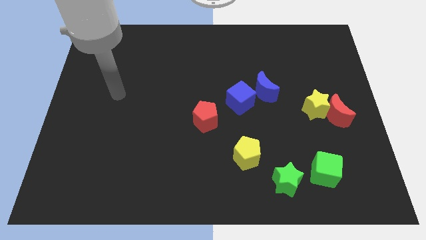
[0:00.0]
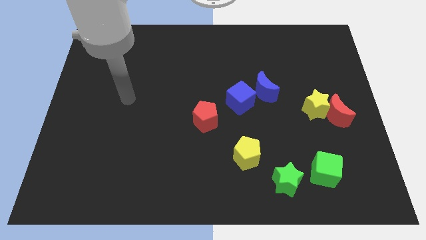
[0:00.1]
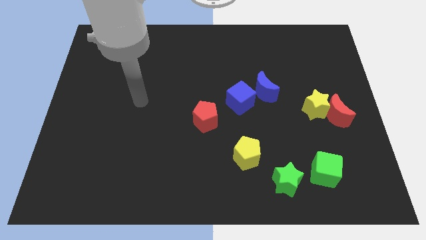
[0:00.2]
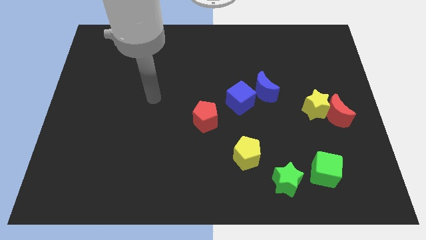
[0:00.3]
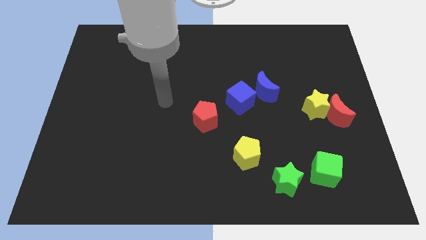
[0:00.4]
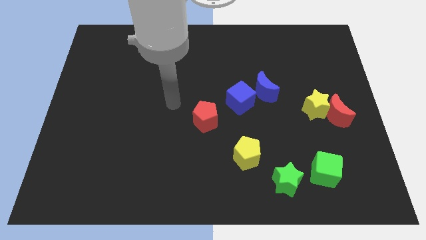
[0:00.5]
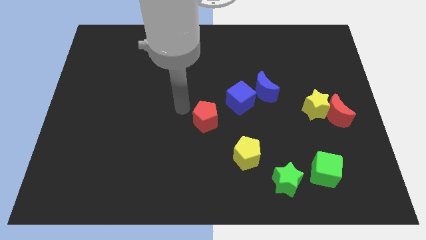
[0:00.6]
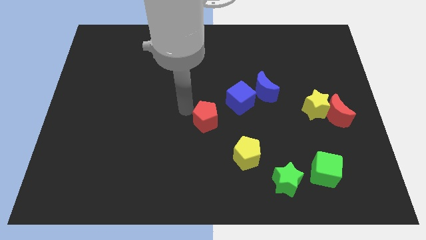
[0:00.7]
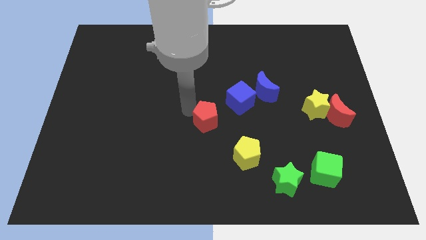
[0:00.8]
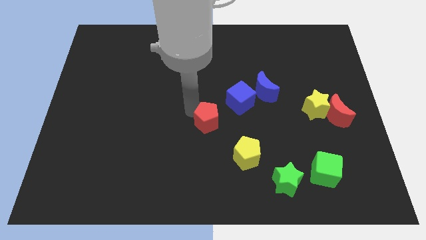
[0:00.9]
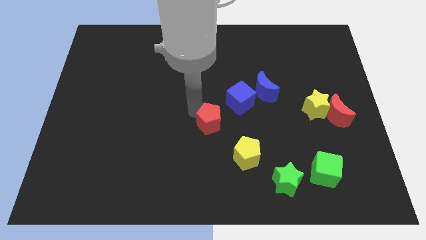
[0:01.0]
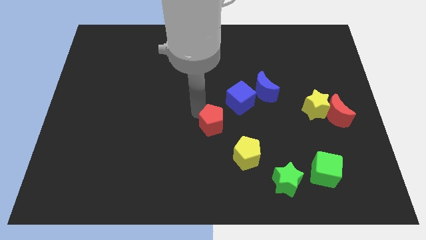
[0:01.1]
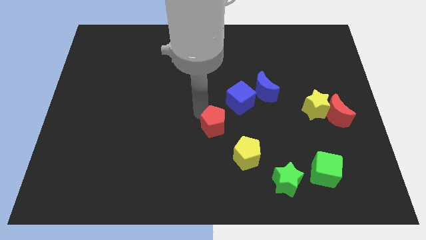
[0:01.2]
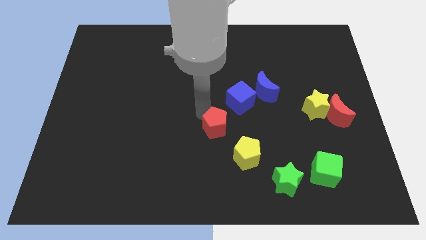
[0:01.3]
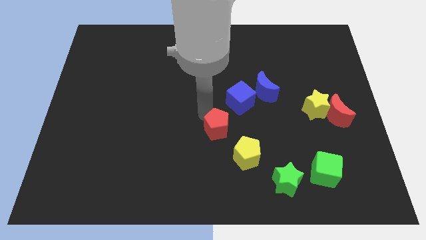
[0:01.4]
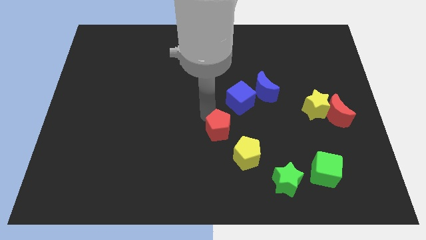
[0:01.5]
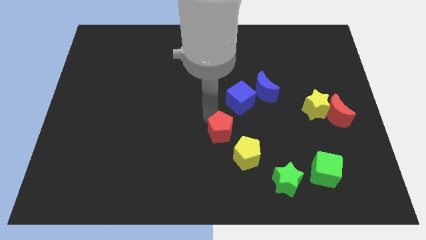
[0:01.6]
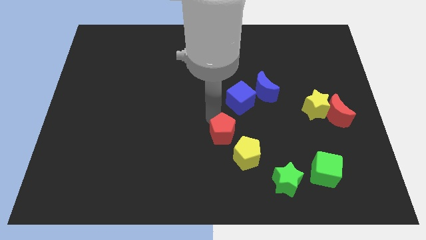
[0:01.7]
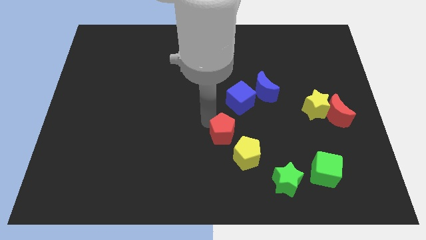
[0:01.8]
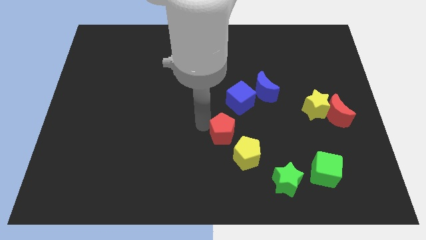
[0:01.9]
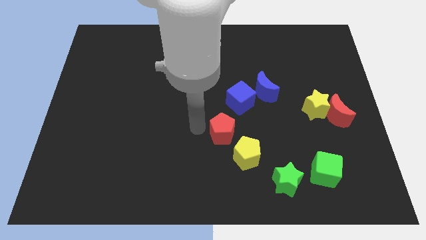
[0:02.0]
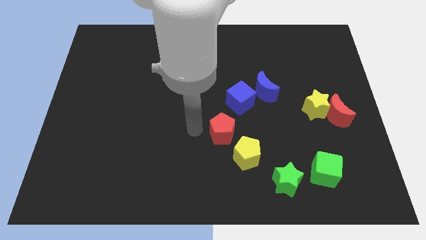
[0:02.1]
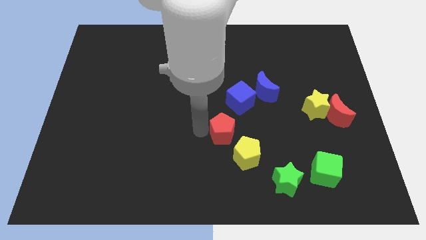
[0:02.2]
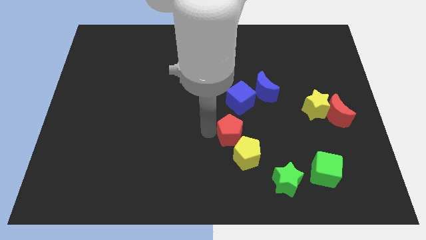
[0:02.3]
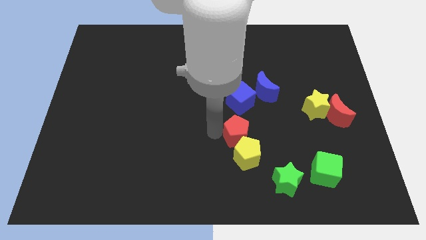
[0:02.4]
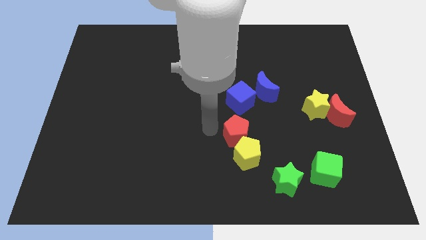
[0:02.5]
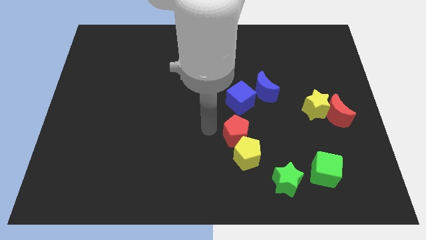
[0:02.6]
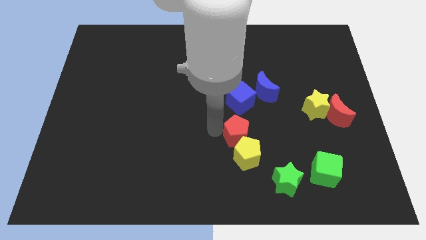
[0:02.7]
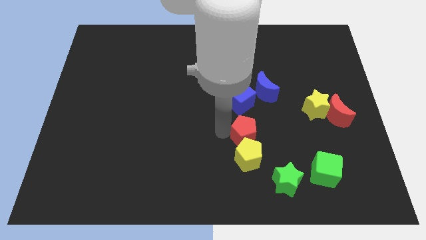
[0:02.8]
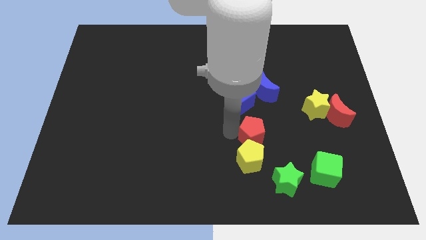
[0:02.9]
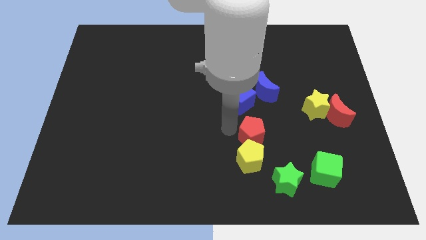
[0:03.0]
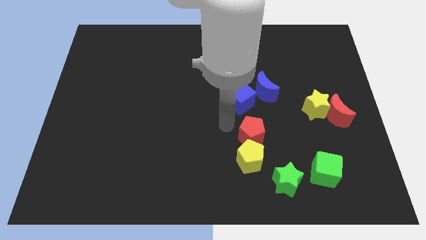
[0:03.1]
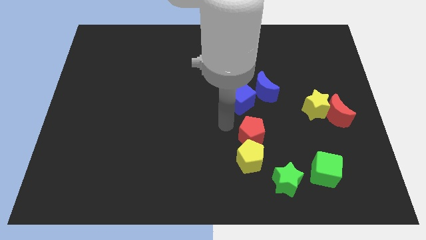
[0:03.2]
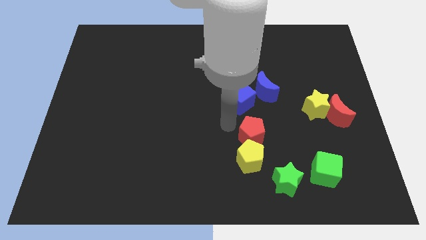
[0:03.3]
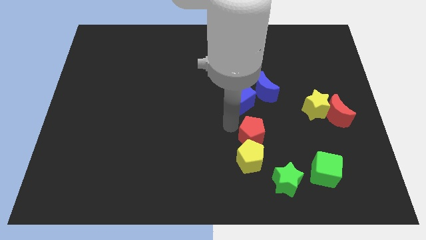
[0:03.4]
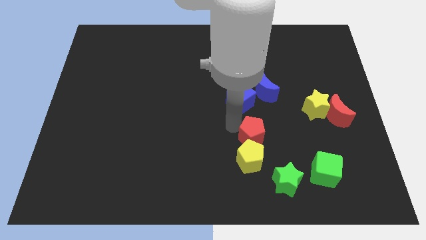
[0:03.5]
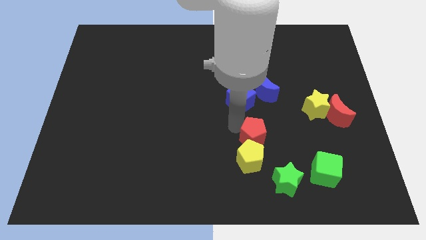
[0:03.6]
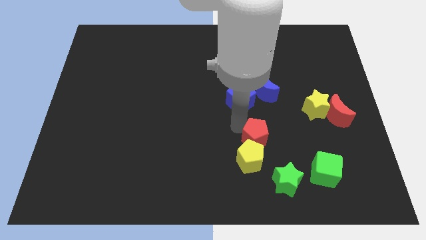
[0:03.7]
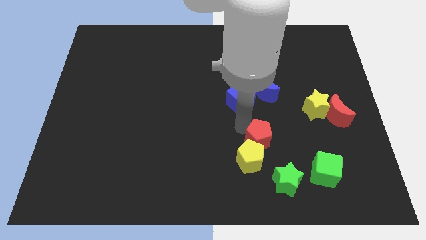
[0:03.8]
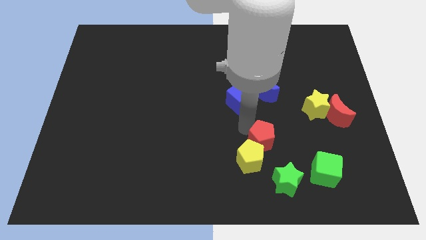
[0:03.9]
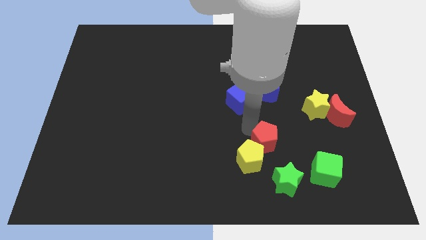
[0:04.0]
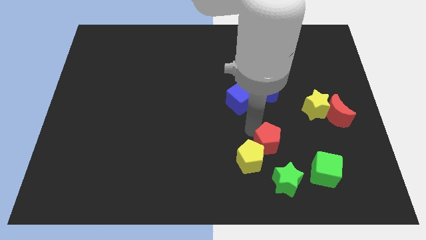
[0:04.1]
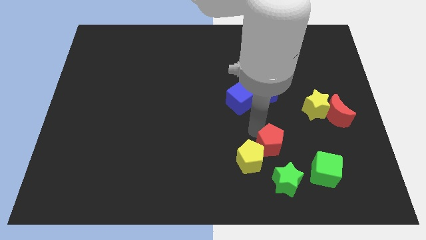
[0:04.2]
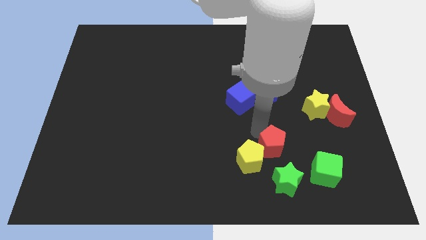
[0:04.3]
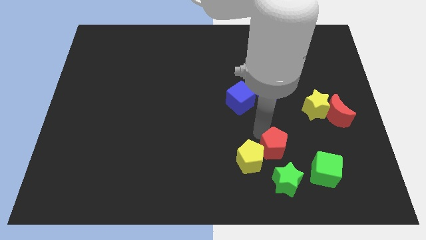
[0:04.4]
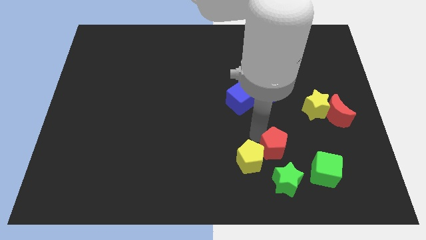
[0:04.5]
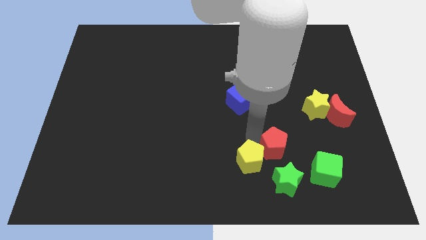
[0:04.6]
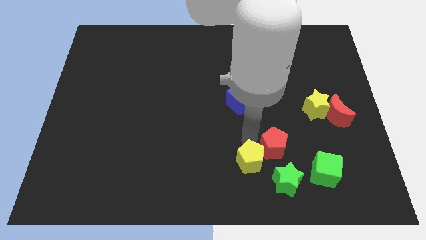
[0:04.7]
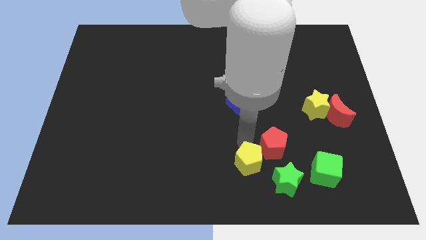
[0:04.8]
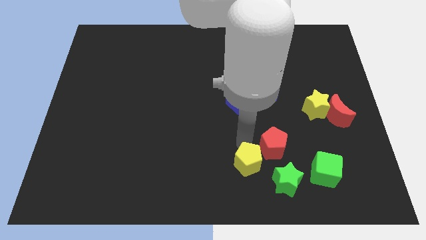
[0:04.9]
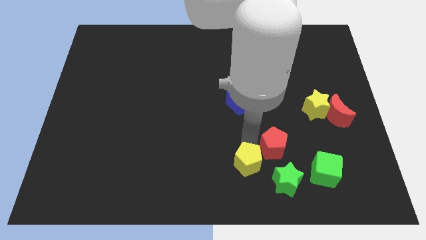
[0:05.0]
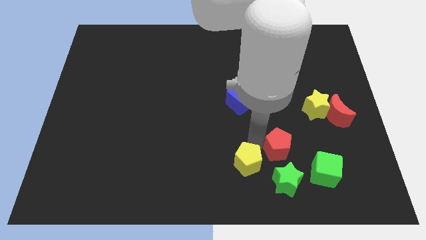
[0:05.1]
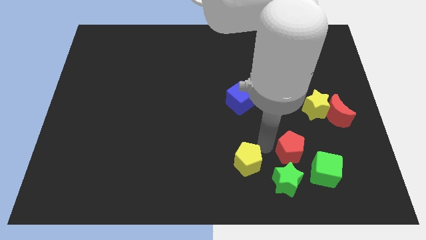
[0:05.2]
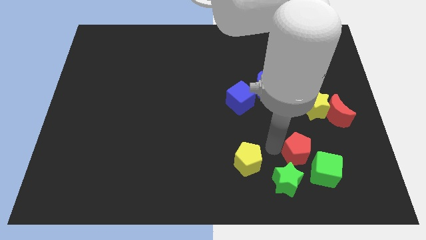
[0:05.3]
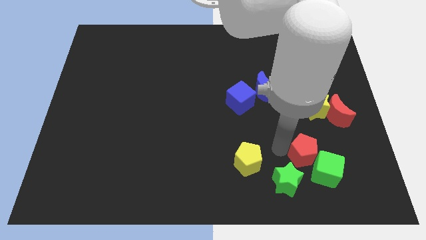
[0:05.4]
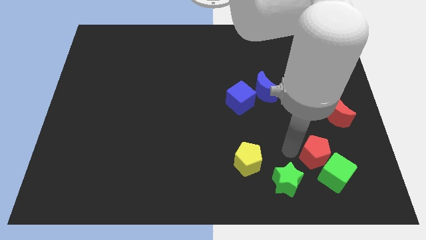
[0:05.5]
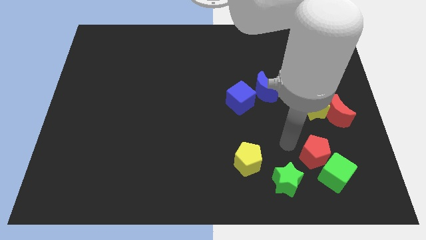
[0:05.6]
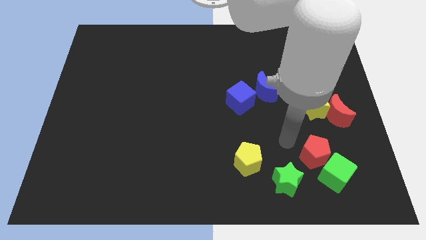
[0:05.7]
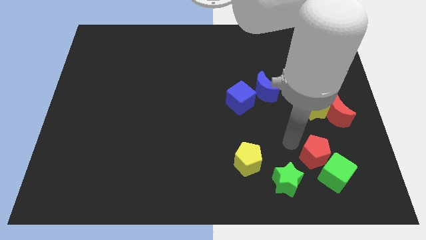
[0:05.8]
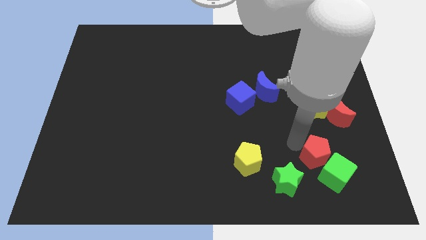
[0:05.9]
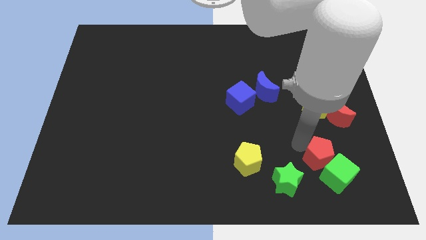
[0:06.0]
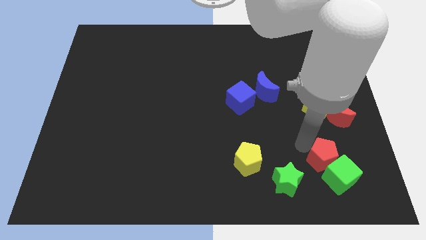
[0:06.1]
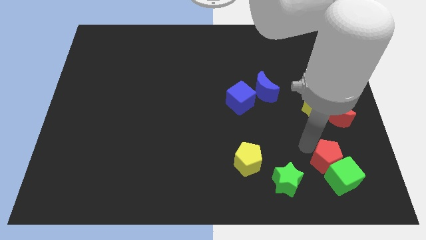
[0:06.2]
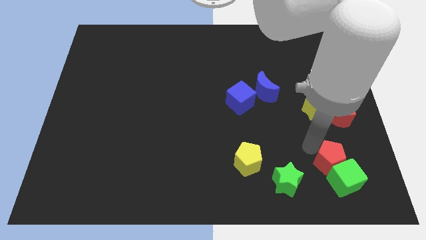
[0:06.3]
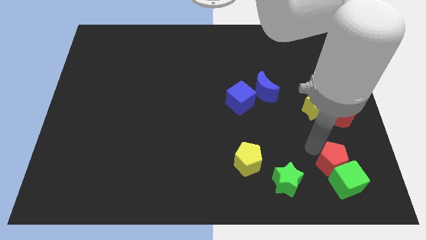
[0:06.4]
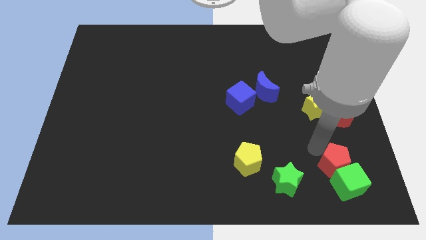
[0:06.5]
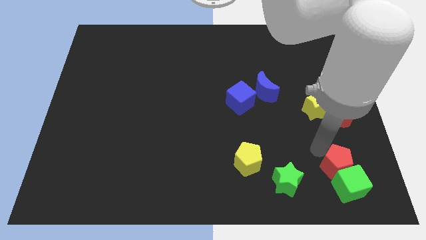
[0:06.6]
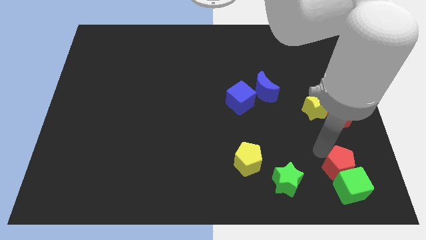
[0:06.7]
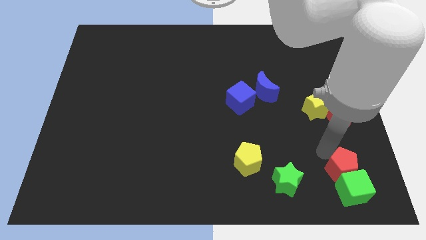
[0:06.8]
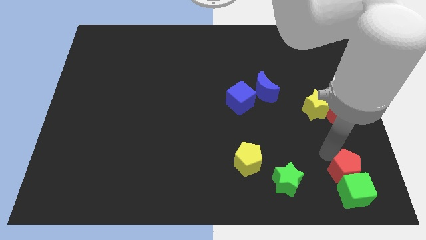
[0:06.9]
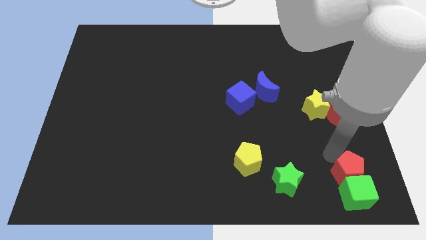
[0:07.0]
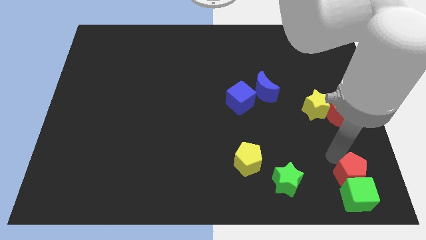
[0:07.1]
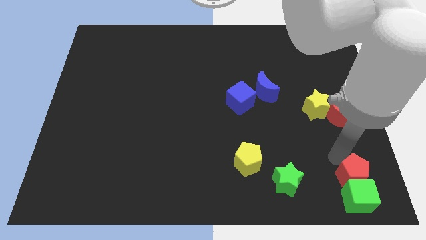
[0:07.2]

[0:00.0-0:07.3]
push the red pentagon to the bottom right of the board
